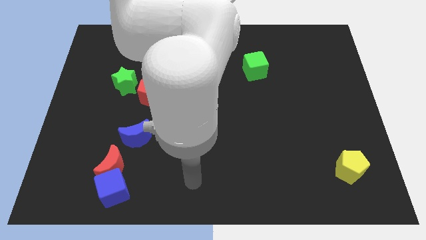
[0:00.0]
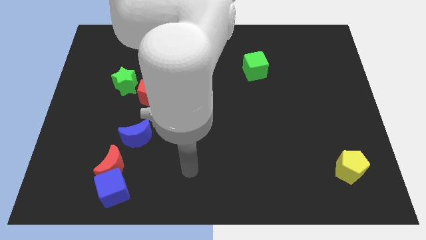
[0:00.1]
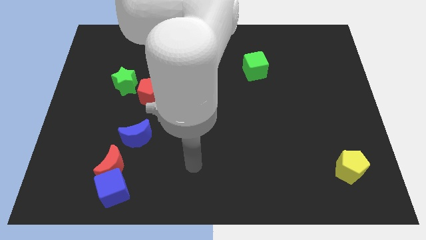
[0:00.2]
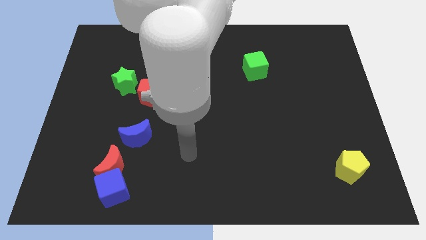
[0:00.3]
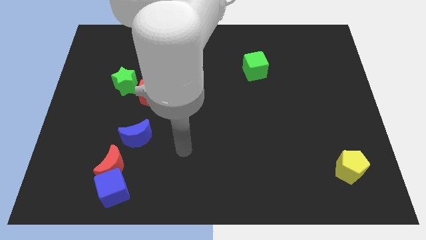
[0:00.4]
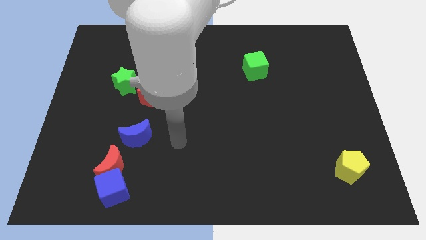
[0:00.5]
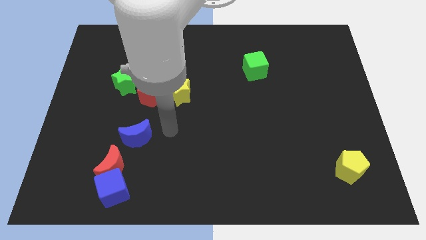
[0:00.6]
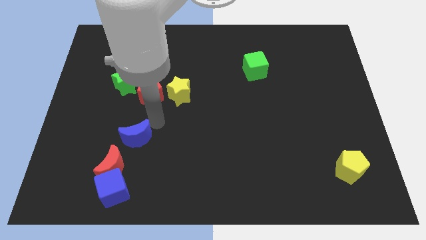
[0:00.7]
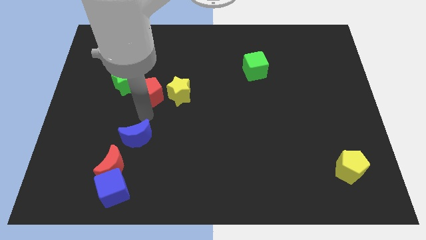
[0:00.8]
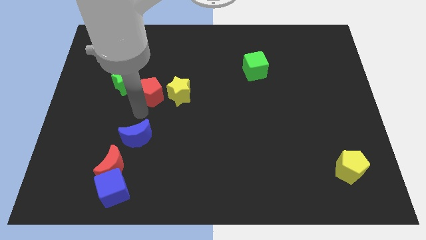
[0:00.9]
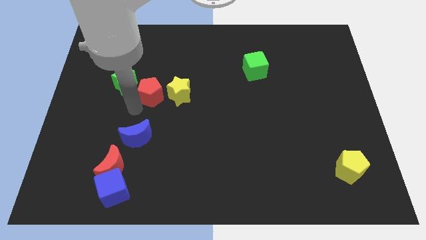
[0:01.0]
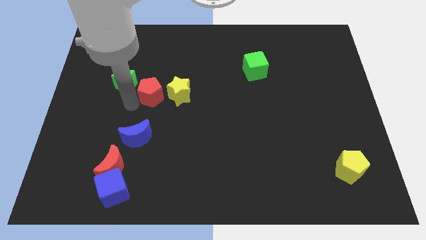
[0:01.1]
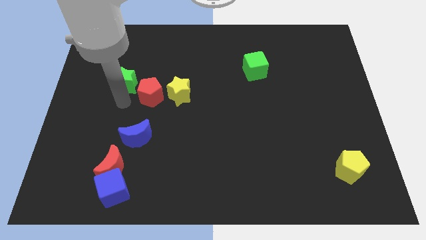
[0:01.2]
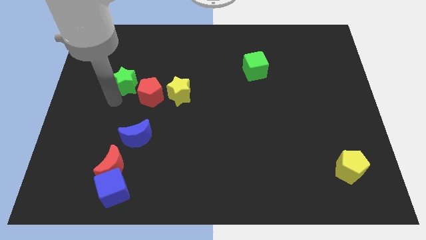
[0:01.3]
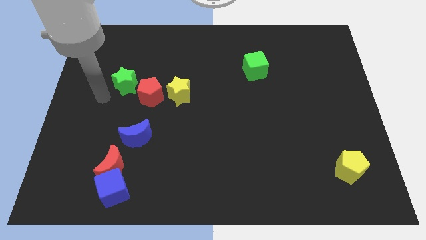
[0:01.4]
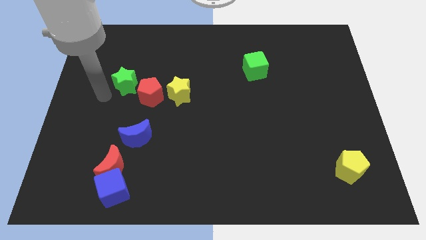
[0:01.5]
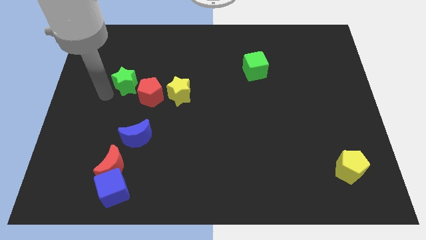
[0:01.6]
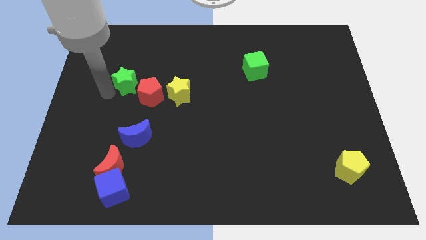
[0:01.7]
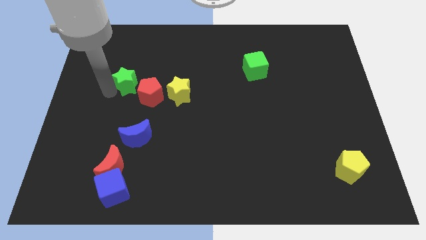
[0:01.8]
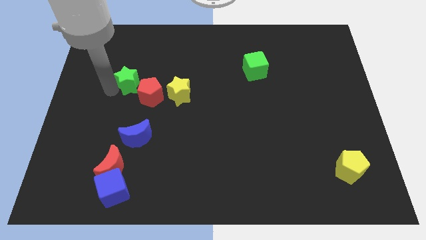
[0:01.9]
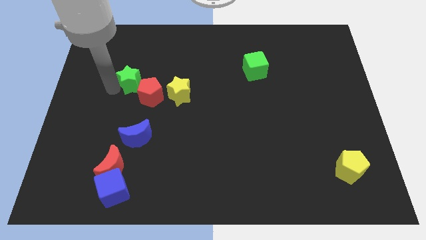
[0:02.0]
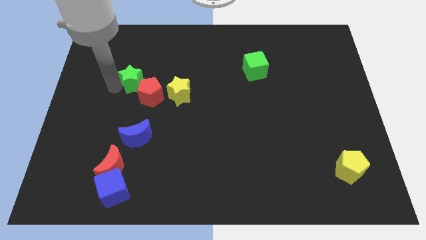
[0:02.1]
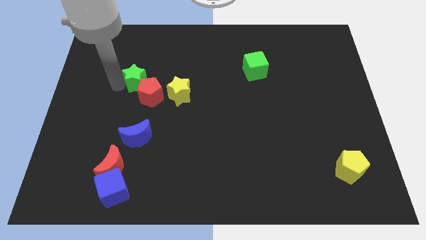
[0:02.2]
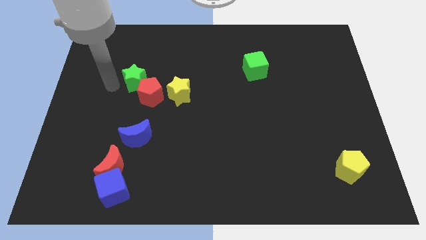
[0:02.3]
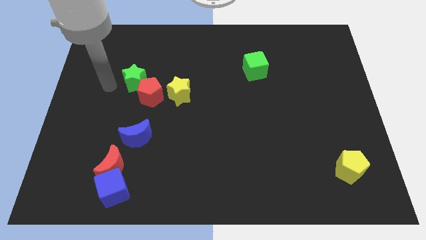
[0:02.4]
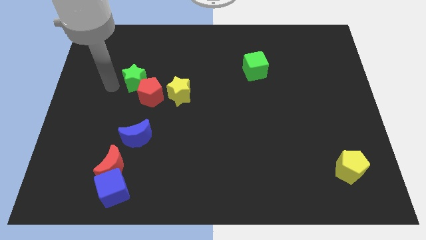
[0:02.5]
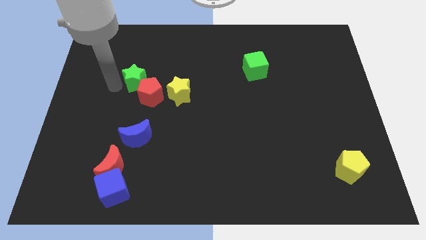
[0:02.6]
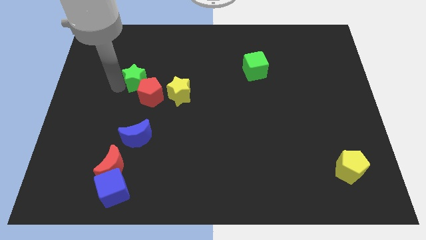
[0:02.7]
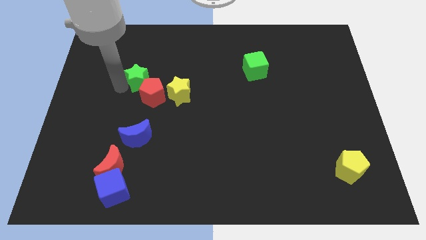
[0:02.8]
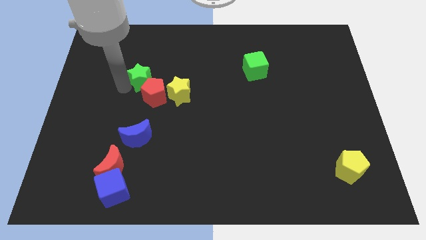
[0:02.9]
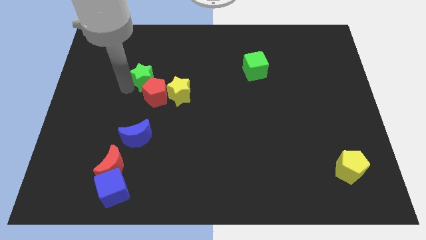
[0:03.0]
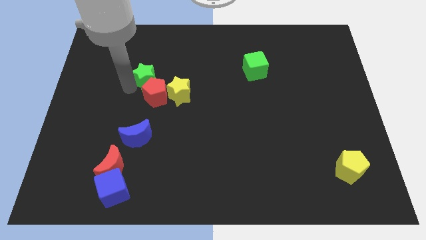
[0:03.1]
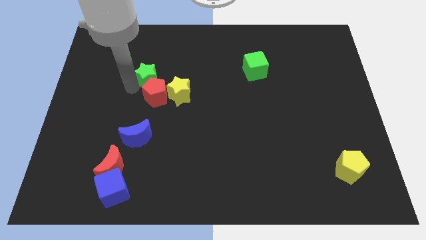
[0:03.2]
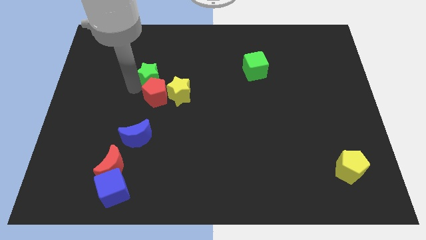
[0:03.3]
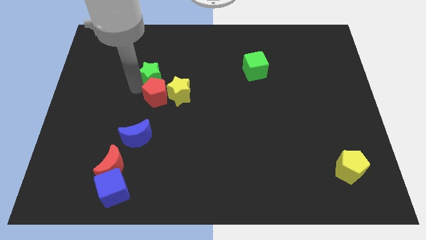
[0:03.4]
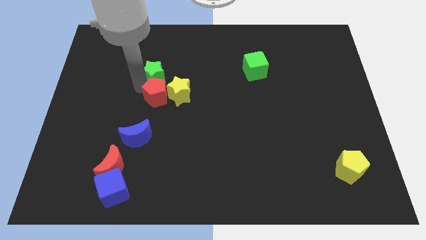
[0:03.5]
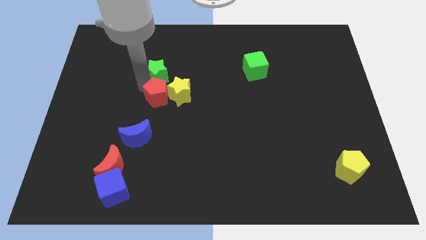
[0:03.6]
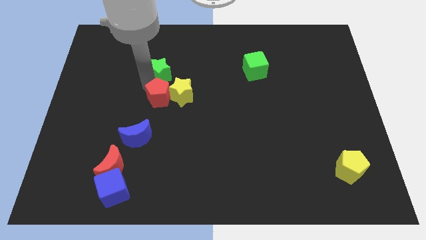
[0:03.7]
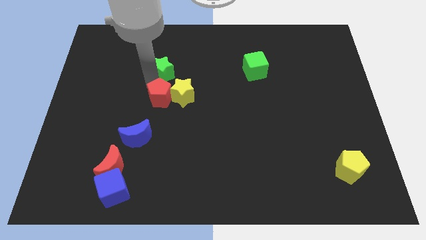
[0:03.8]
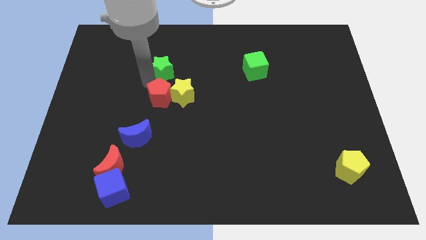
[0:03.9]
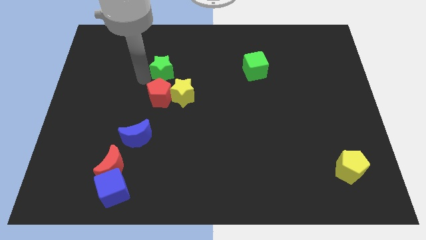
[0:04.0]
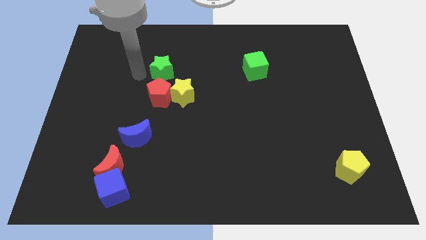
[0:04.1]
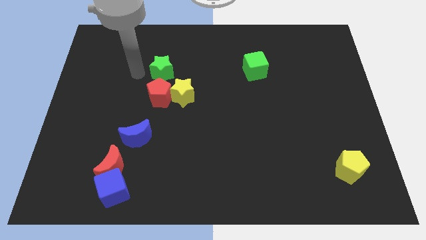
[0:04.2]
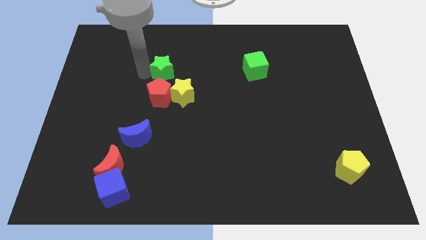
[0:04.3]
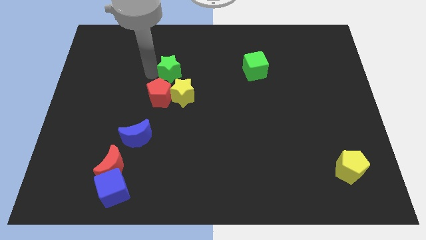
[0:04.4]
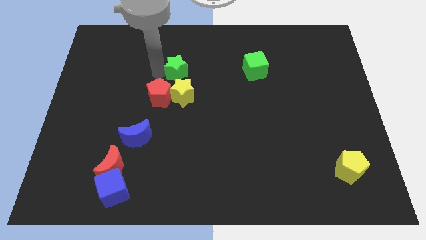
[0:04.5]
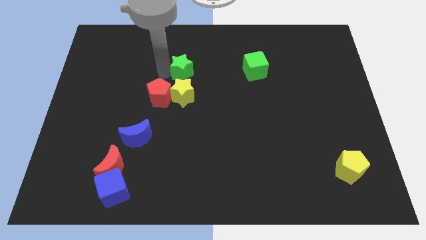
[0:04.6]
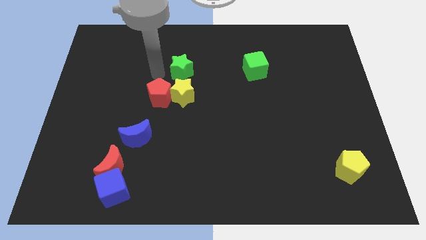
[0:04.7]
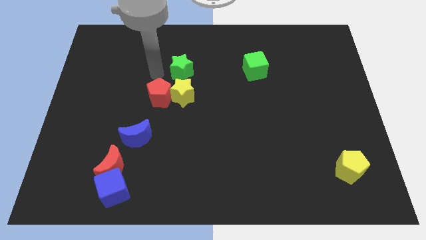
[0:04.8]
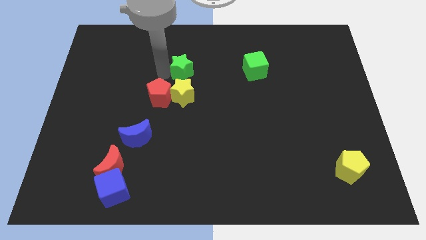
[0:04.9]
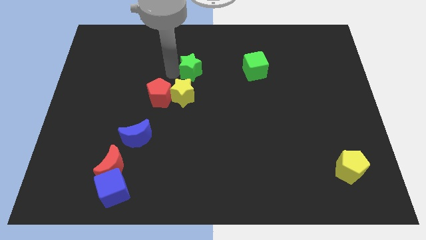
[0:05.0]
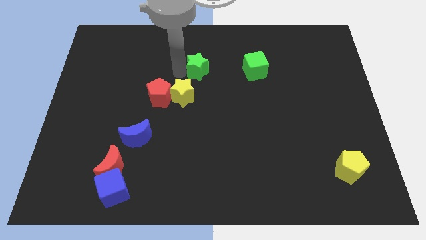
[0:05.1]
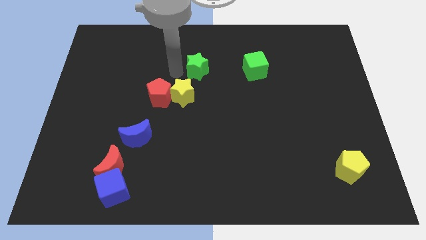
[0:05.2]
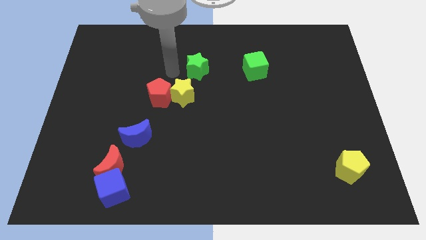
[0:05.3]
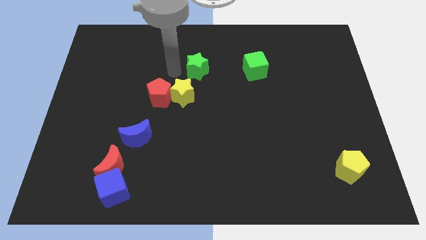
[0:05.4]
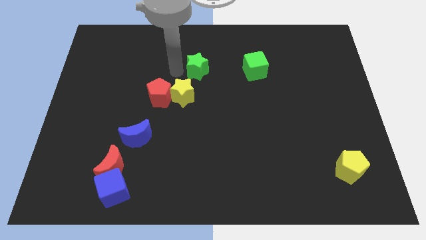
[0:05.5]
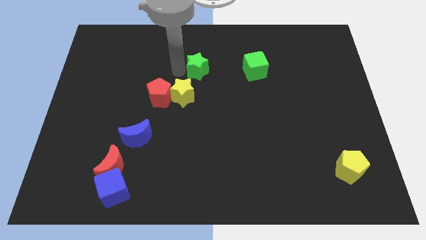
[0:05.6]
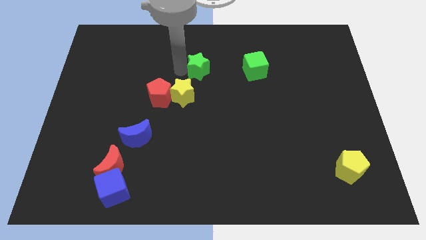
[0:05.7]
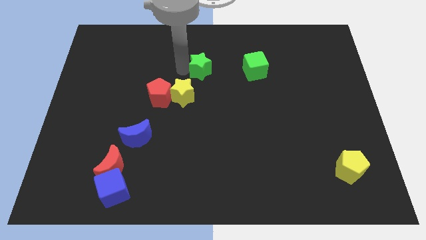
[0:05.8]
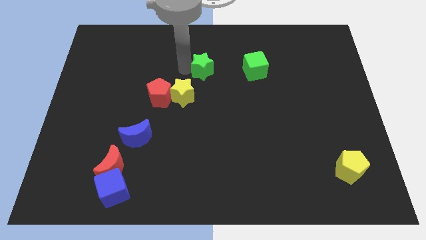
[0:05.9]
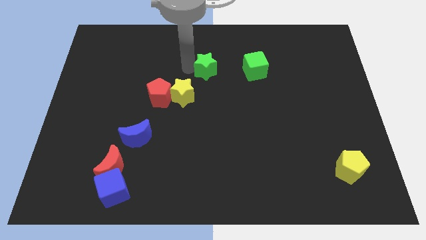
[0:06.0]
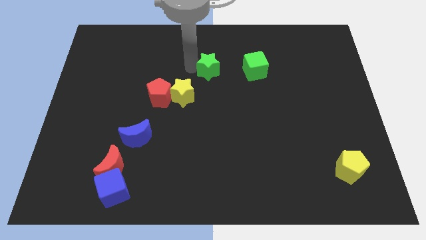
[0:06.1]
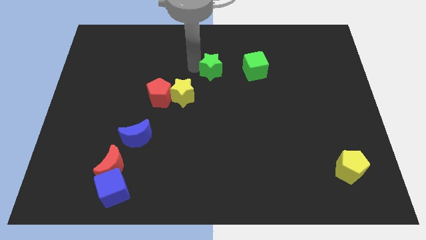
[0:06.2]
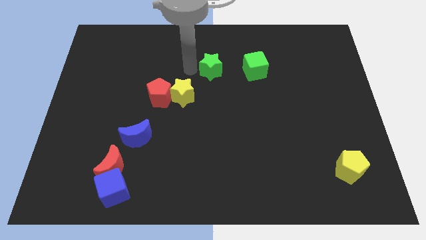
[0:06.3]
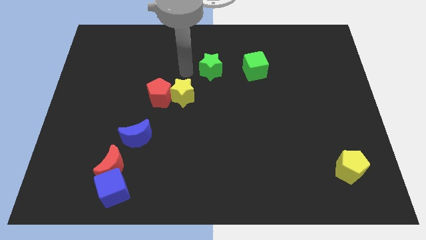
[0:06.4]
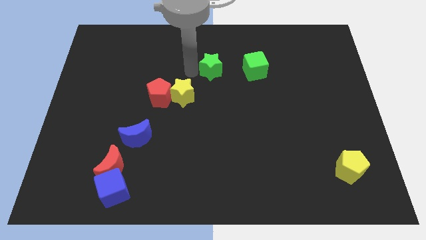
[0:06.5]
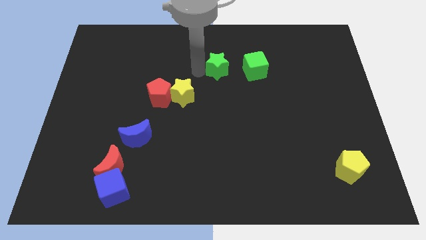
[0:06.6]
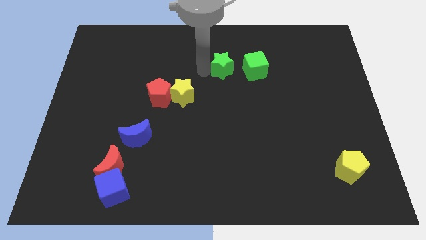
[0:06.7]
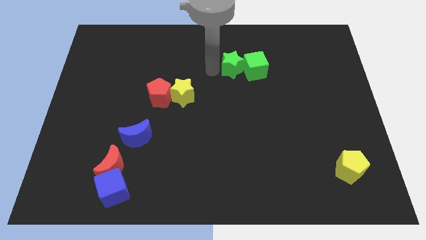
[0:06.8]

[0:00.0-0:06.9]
push the green star towards the green cube

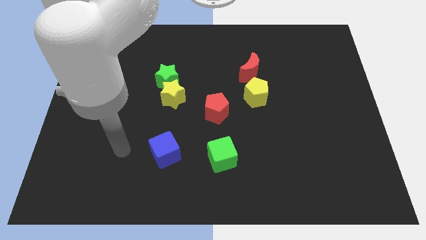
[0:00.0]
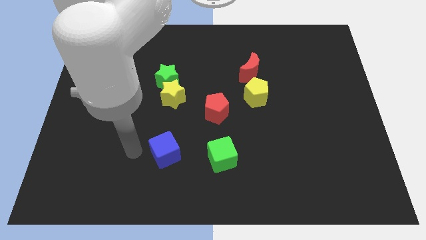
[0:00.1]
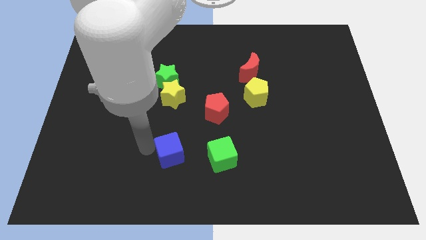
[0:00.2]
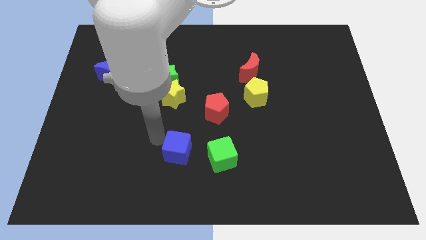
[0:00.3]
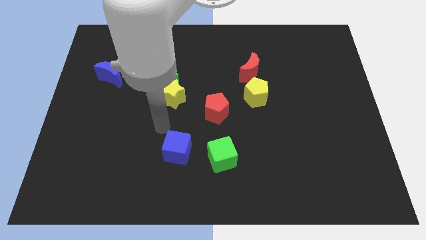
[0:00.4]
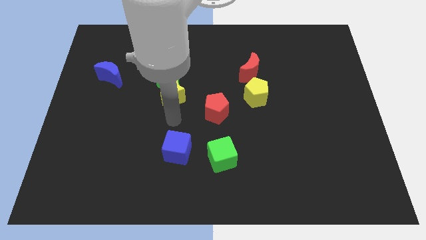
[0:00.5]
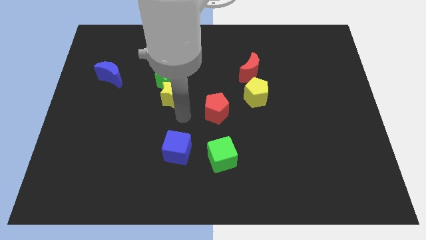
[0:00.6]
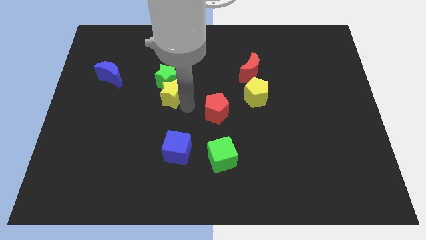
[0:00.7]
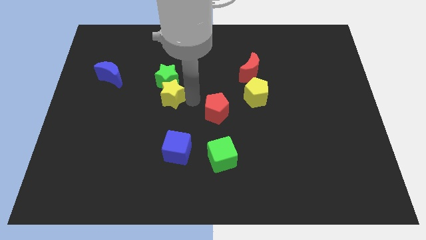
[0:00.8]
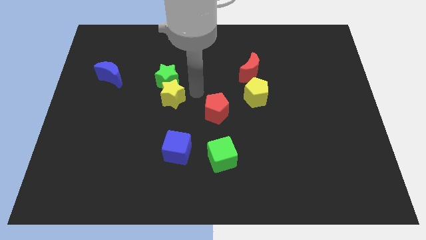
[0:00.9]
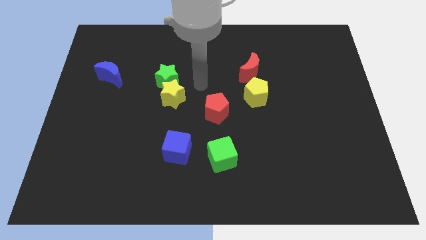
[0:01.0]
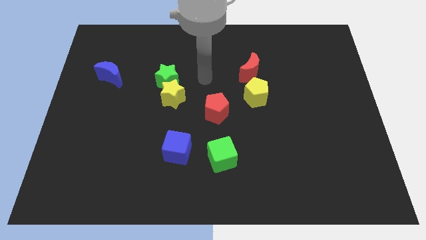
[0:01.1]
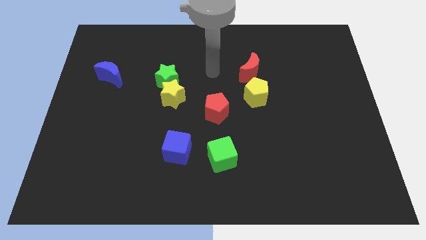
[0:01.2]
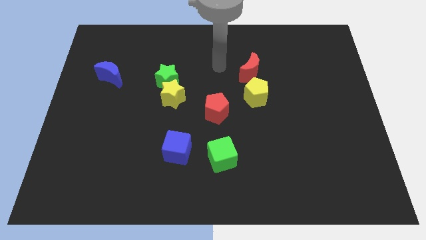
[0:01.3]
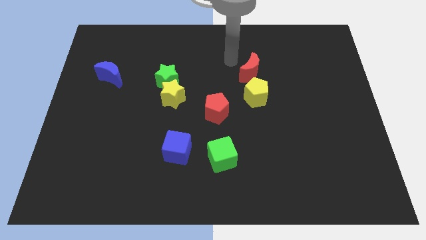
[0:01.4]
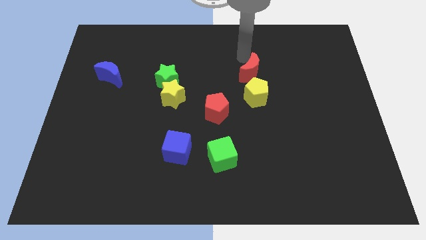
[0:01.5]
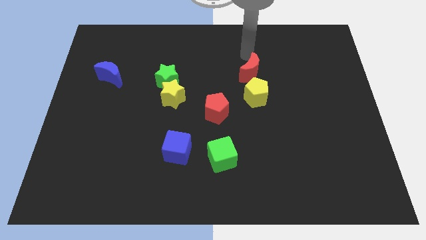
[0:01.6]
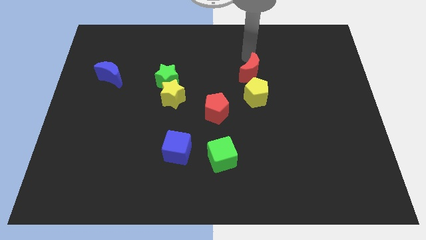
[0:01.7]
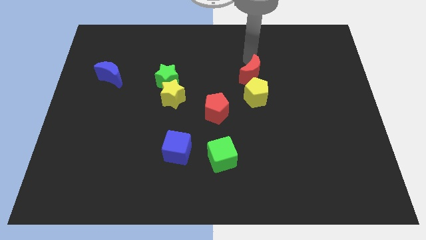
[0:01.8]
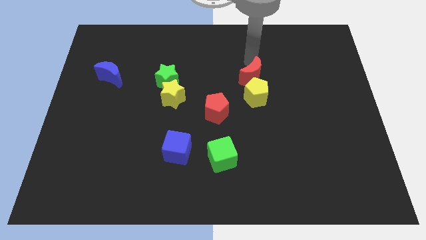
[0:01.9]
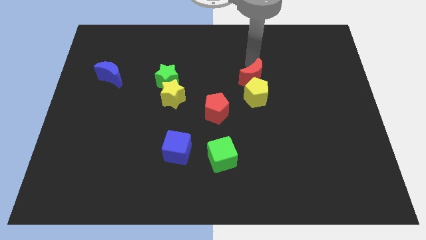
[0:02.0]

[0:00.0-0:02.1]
push the red moon close to the yellow pentagon
